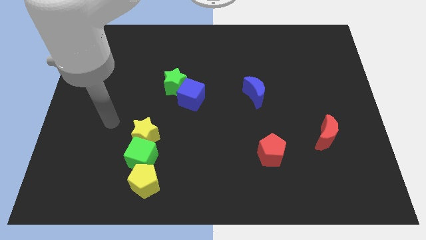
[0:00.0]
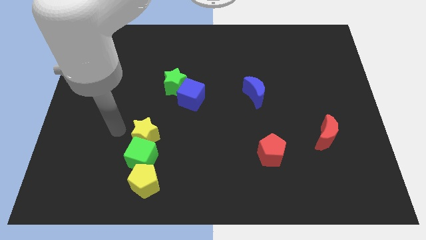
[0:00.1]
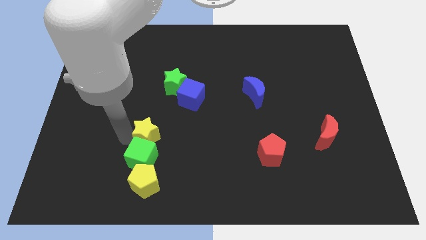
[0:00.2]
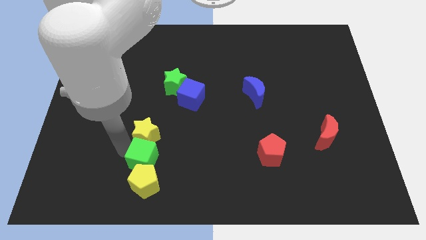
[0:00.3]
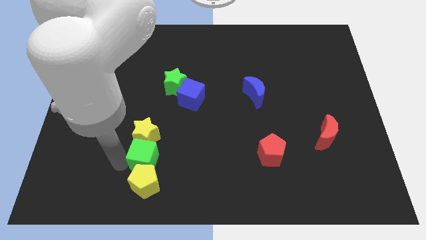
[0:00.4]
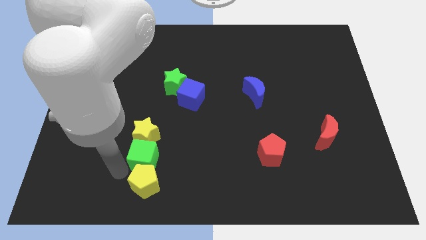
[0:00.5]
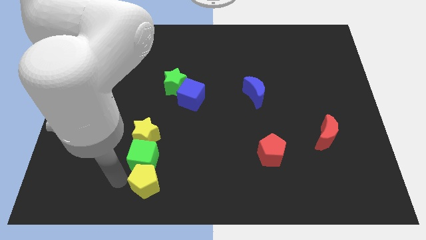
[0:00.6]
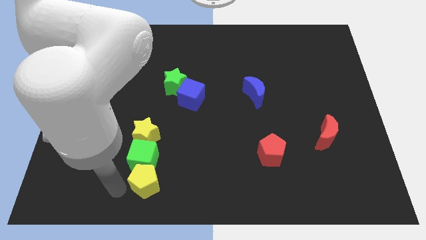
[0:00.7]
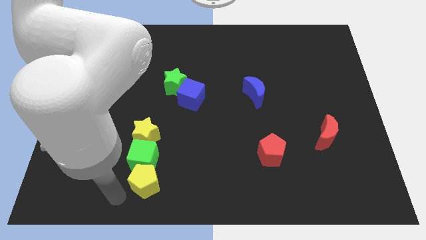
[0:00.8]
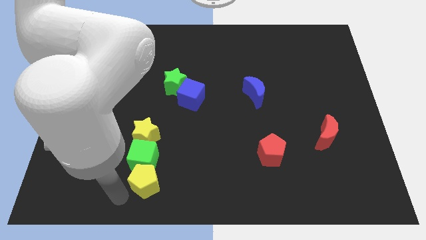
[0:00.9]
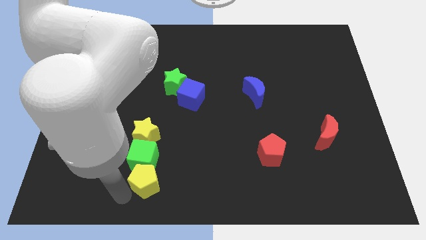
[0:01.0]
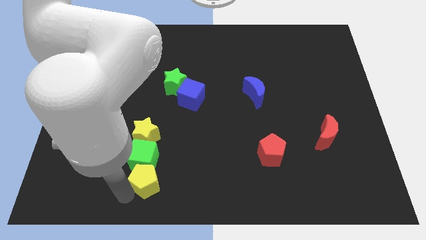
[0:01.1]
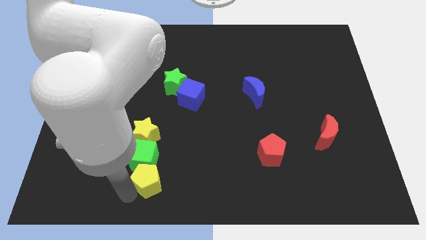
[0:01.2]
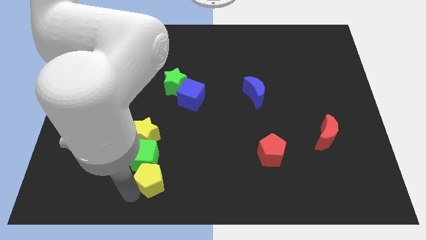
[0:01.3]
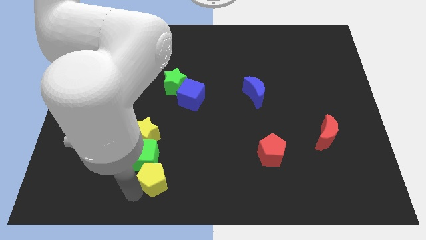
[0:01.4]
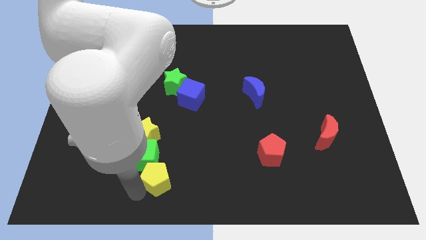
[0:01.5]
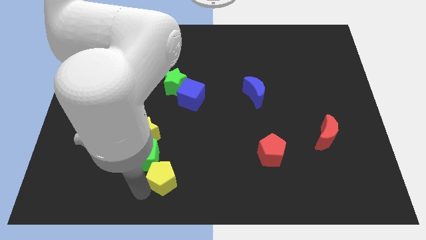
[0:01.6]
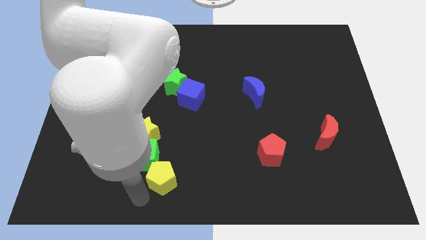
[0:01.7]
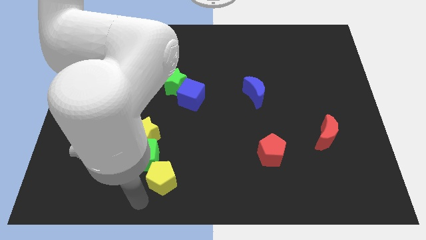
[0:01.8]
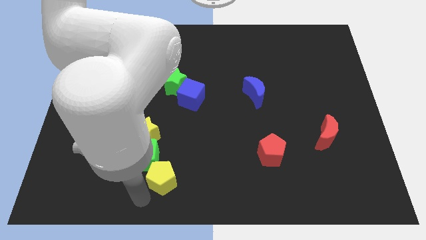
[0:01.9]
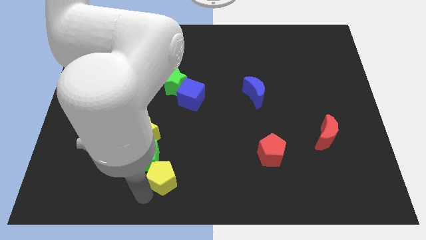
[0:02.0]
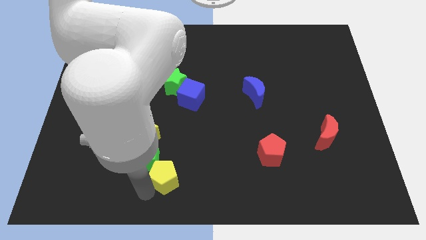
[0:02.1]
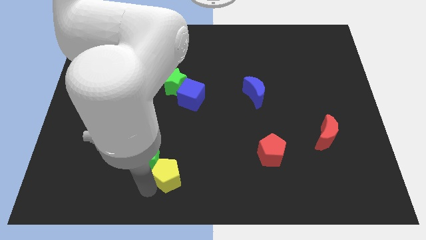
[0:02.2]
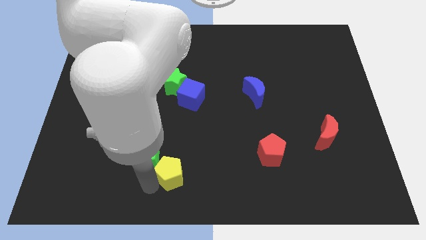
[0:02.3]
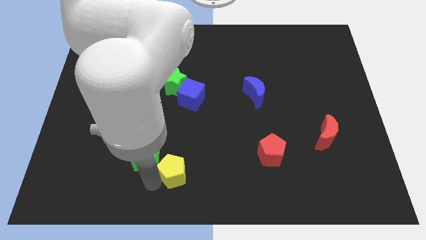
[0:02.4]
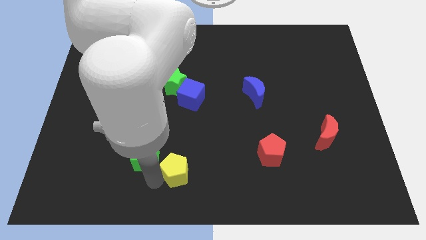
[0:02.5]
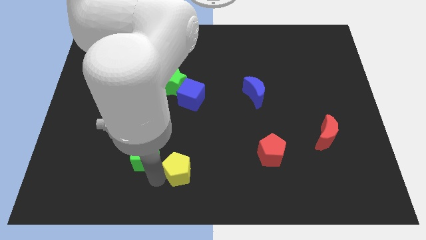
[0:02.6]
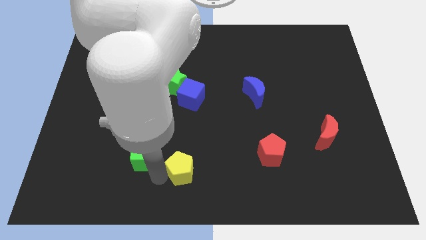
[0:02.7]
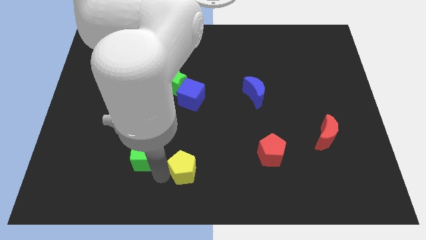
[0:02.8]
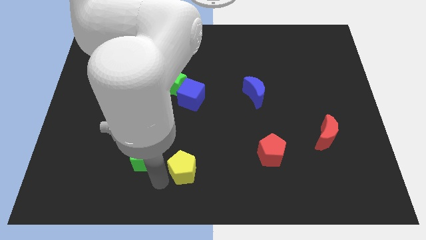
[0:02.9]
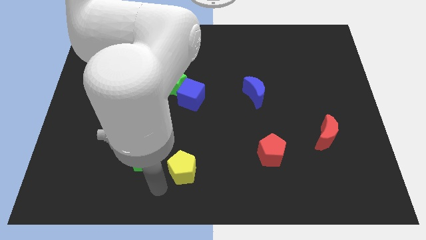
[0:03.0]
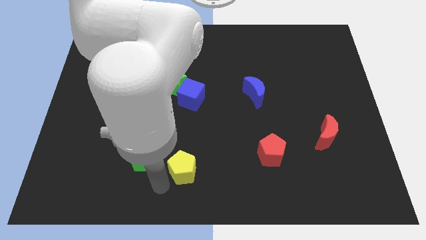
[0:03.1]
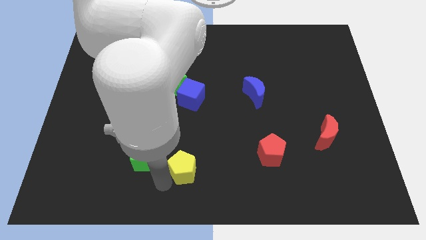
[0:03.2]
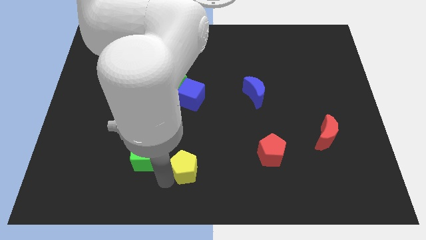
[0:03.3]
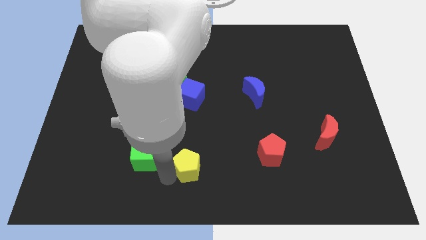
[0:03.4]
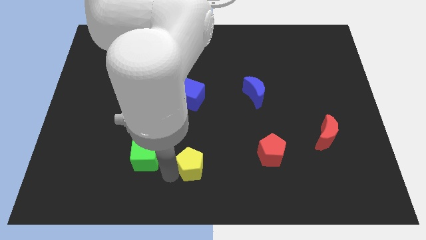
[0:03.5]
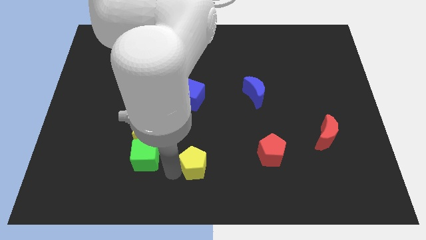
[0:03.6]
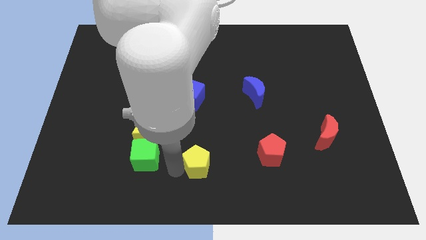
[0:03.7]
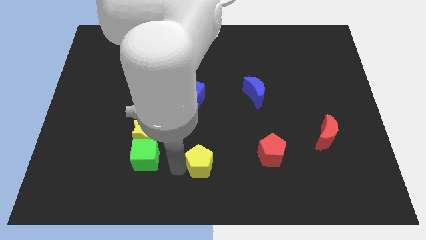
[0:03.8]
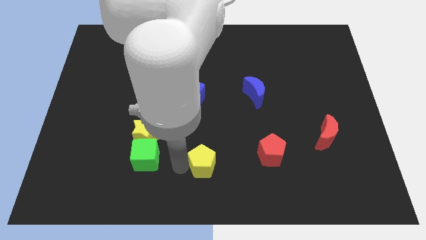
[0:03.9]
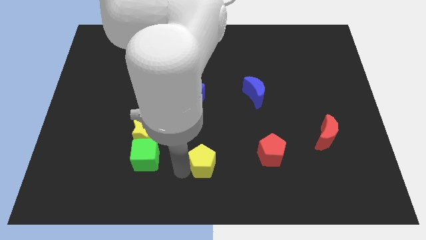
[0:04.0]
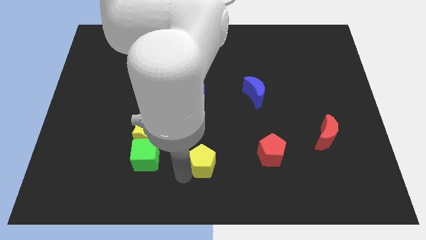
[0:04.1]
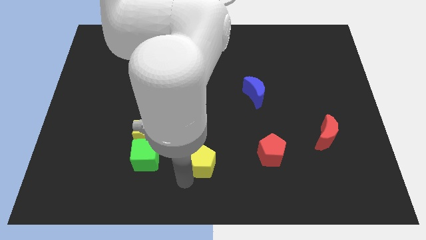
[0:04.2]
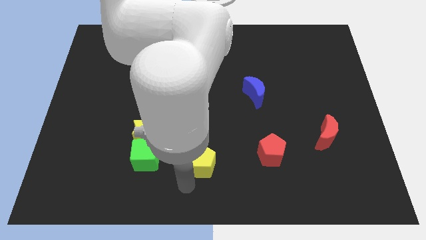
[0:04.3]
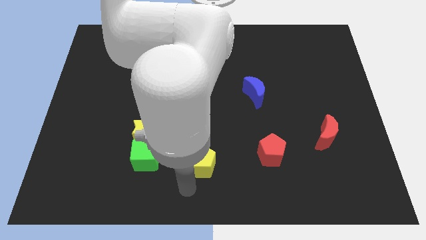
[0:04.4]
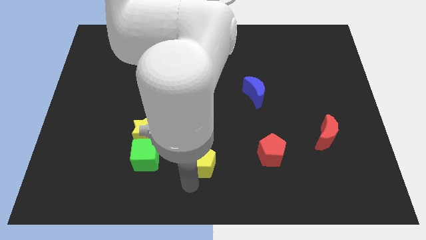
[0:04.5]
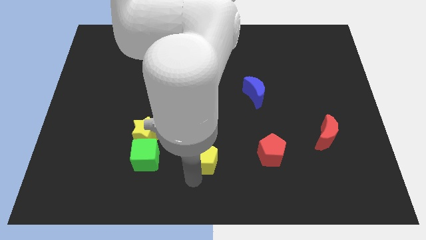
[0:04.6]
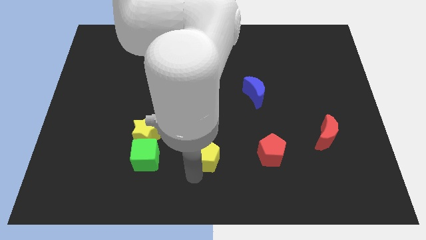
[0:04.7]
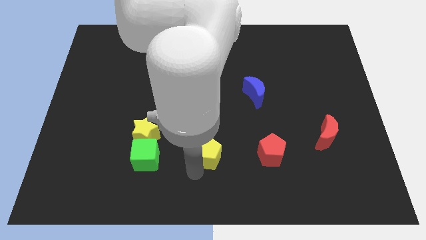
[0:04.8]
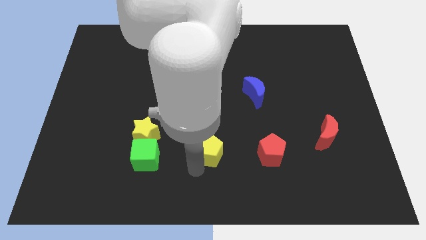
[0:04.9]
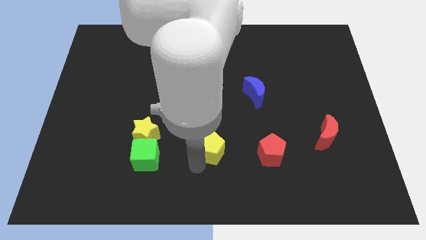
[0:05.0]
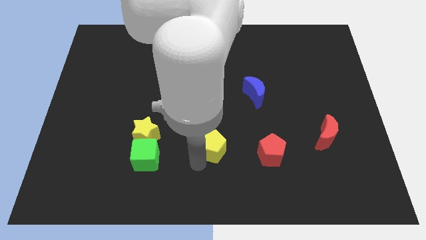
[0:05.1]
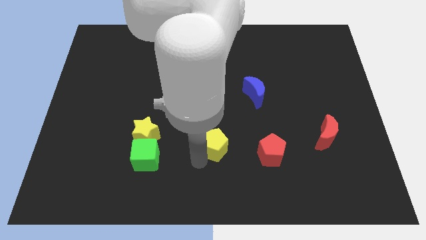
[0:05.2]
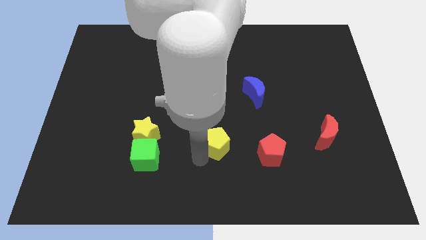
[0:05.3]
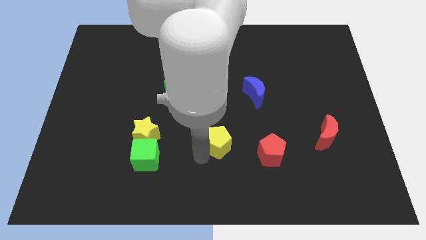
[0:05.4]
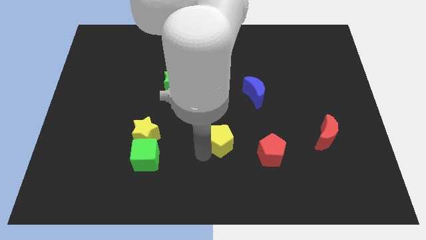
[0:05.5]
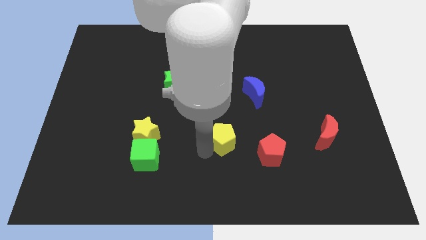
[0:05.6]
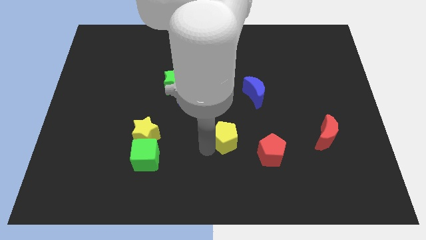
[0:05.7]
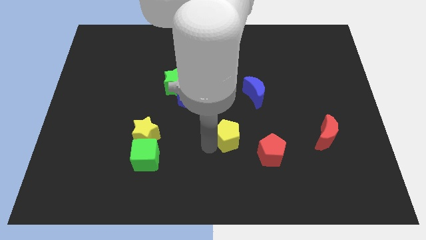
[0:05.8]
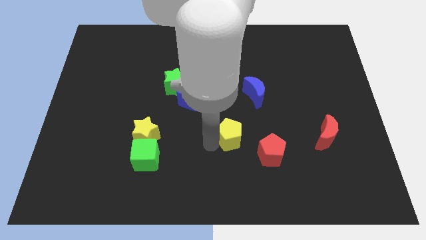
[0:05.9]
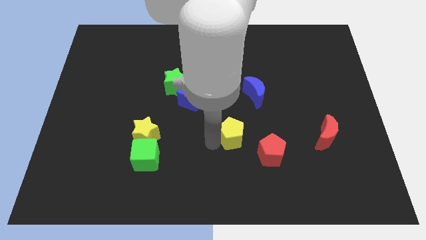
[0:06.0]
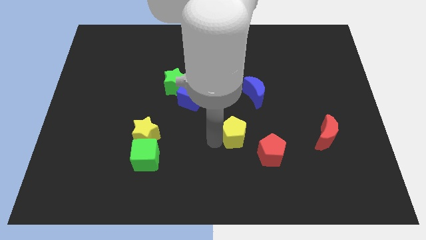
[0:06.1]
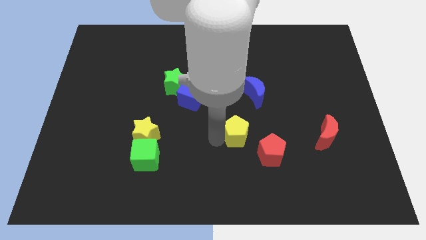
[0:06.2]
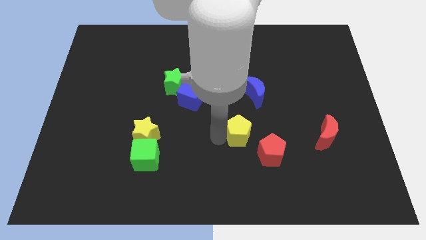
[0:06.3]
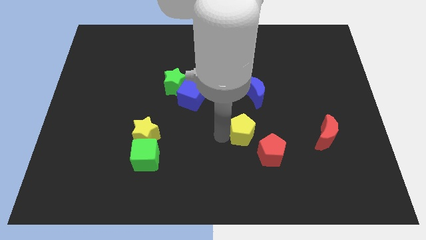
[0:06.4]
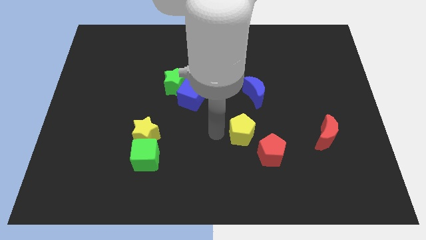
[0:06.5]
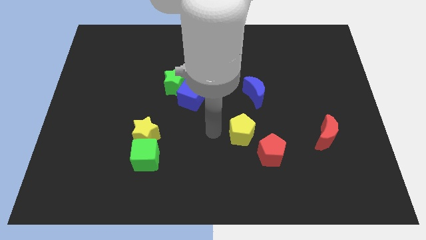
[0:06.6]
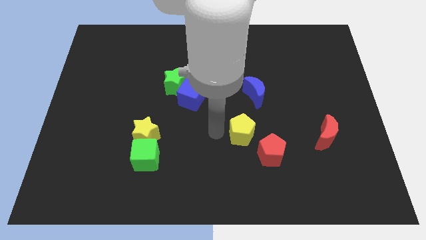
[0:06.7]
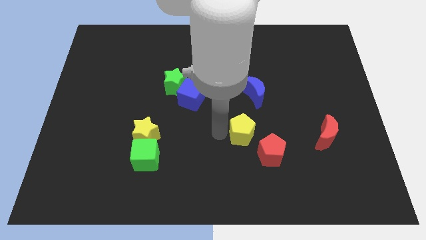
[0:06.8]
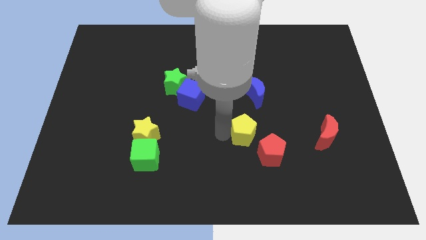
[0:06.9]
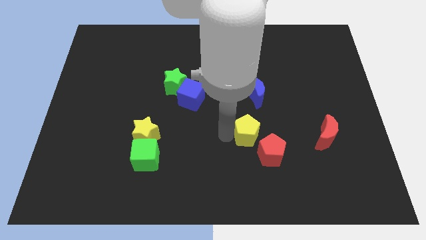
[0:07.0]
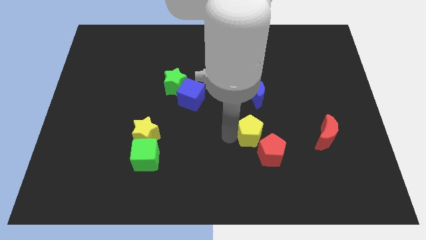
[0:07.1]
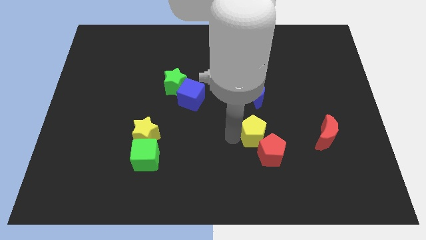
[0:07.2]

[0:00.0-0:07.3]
slide the yellow pentagon to the left side of the red moon
